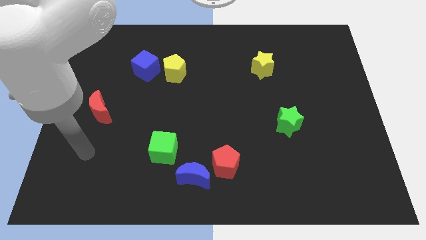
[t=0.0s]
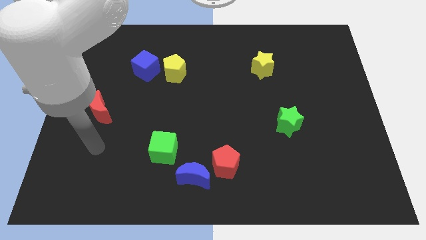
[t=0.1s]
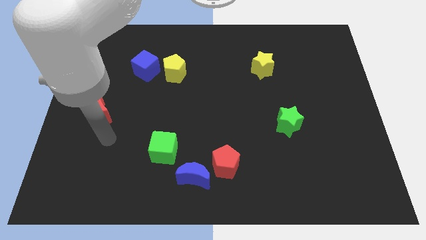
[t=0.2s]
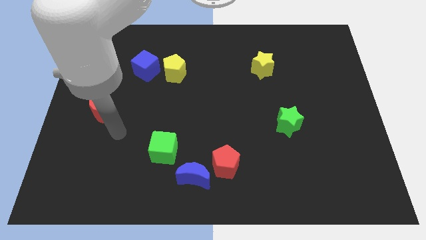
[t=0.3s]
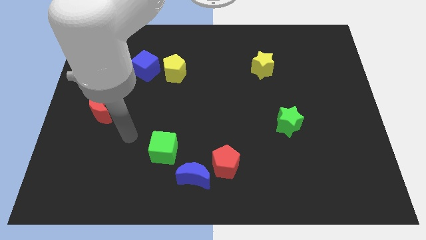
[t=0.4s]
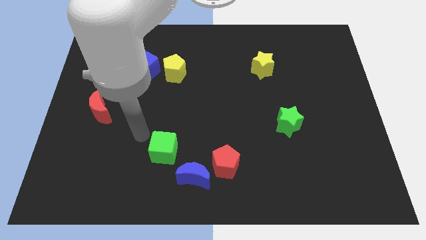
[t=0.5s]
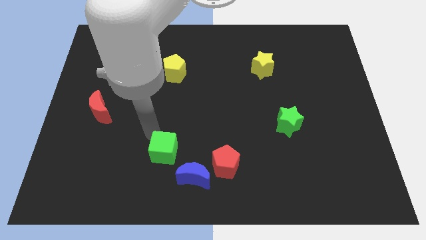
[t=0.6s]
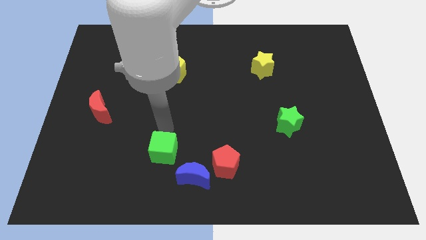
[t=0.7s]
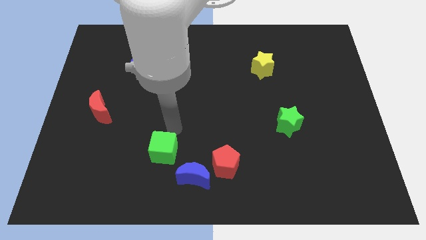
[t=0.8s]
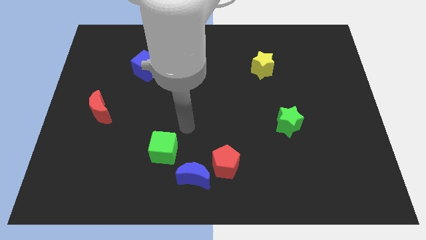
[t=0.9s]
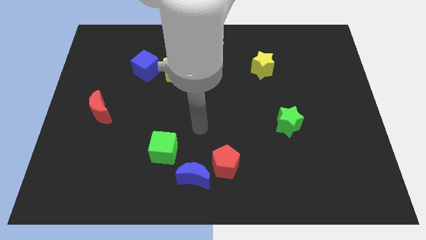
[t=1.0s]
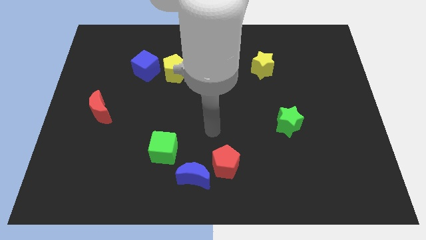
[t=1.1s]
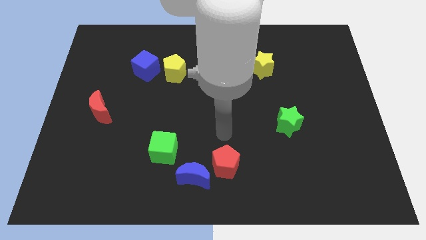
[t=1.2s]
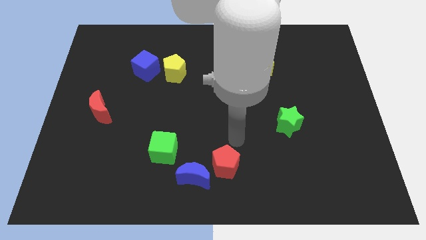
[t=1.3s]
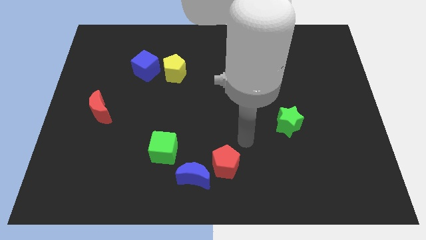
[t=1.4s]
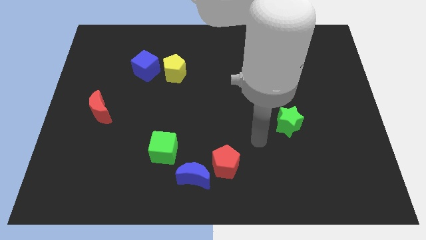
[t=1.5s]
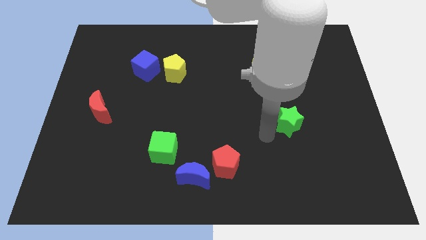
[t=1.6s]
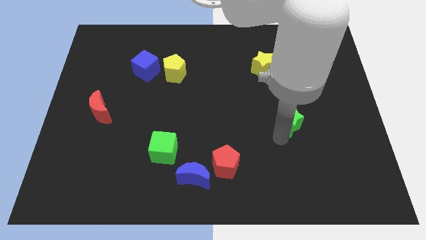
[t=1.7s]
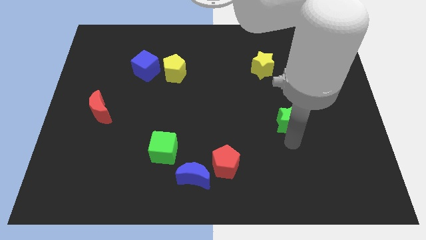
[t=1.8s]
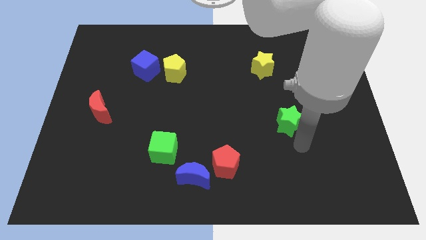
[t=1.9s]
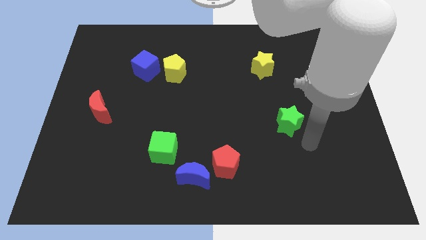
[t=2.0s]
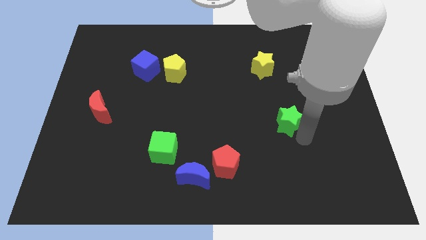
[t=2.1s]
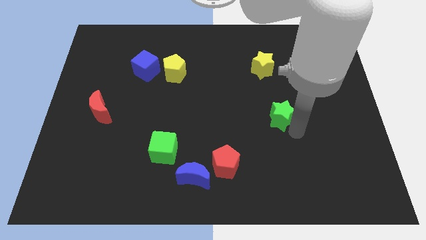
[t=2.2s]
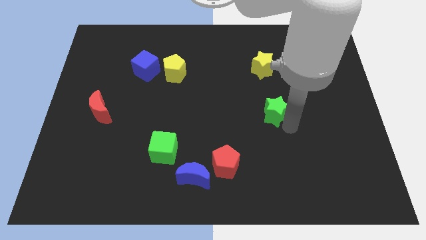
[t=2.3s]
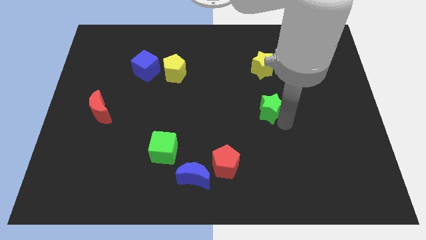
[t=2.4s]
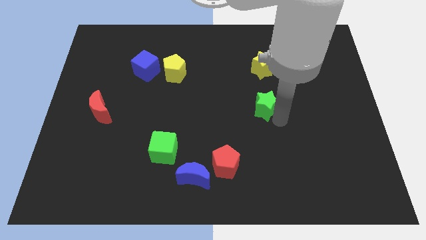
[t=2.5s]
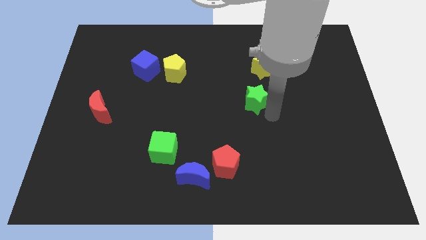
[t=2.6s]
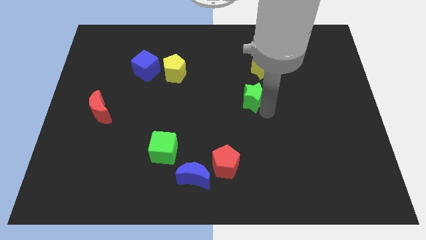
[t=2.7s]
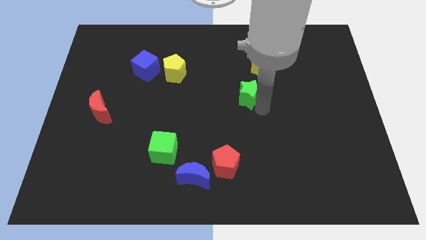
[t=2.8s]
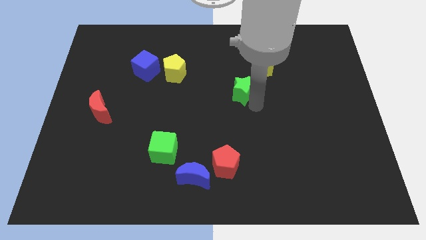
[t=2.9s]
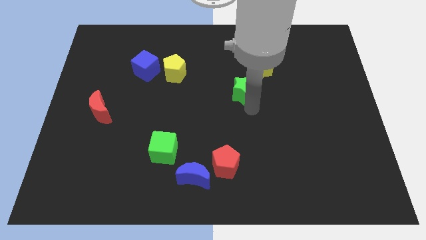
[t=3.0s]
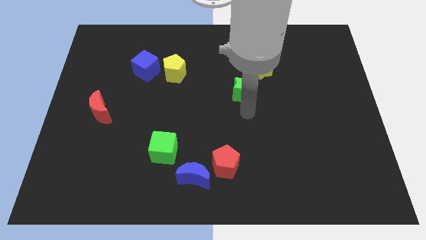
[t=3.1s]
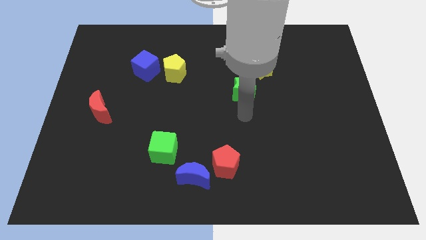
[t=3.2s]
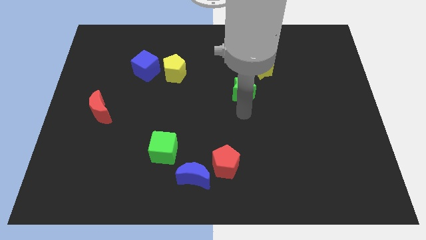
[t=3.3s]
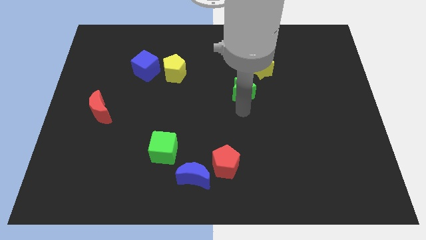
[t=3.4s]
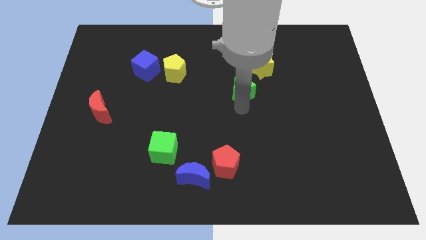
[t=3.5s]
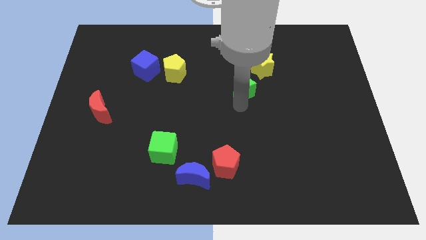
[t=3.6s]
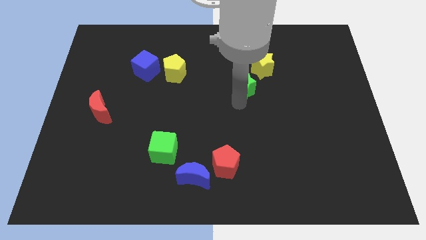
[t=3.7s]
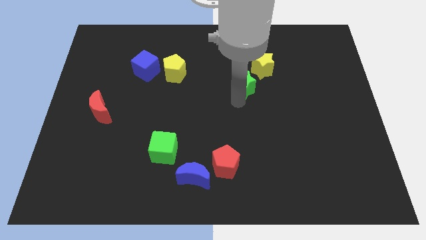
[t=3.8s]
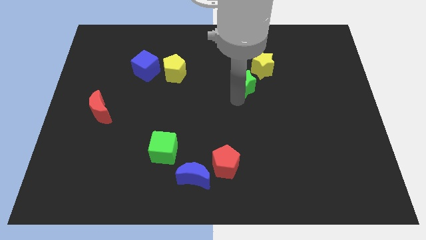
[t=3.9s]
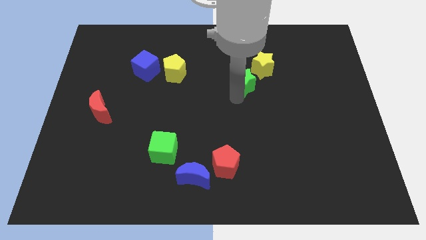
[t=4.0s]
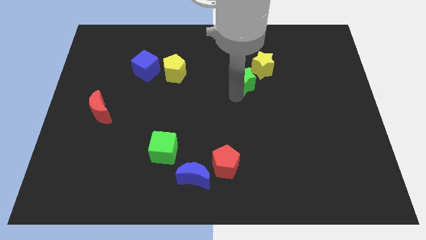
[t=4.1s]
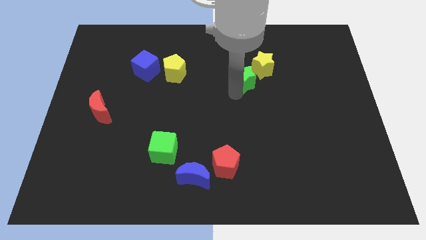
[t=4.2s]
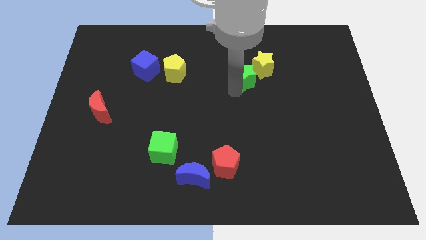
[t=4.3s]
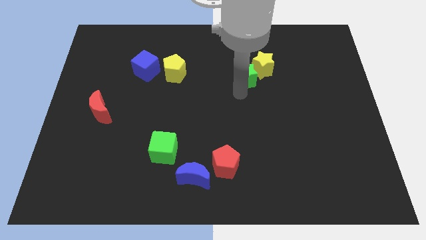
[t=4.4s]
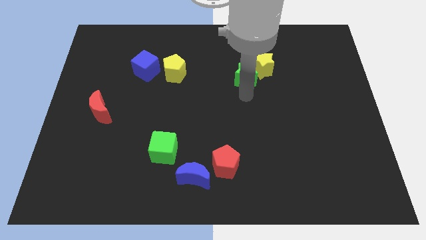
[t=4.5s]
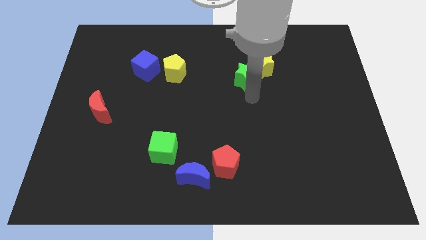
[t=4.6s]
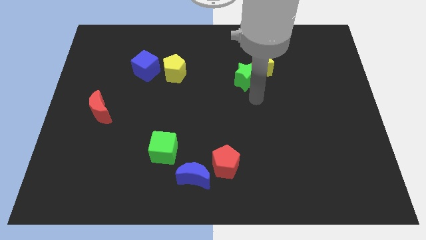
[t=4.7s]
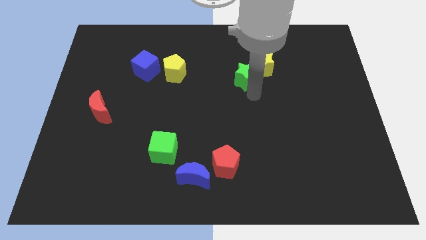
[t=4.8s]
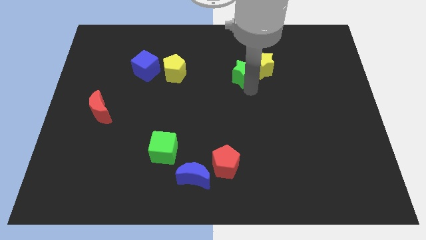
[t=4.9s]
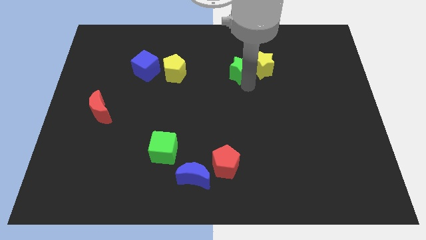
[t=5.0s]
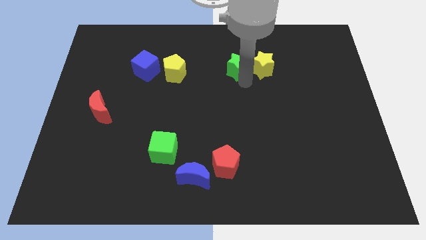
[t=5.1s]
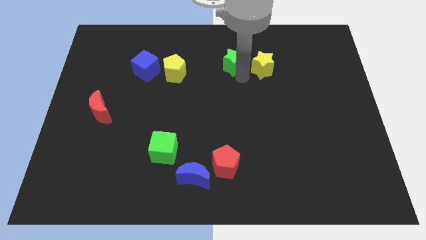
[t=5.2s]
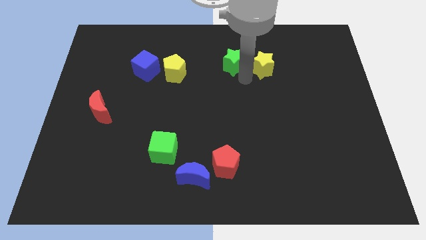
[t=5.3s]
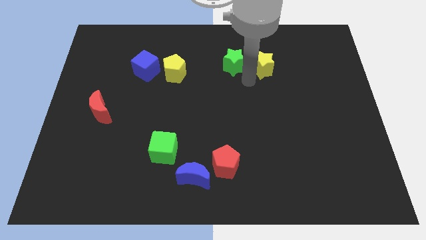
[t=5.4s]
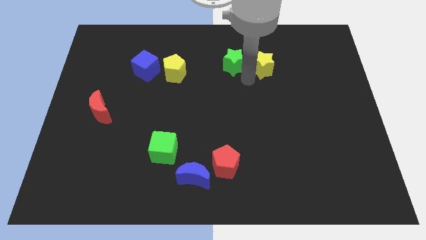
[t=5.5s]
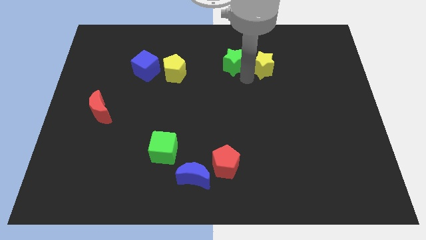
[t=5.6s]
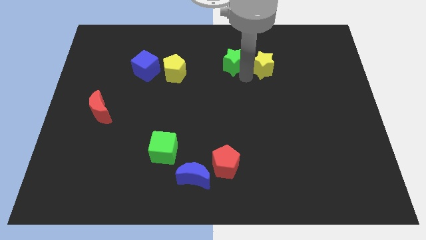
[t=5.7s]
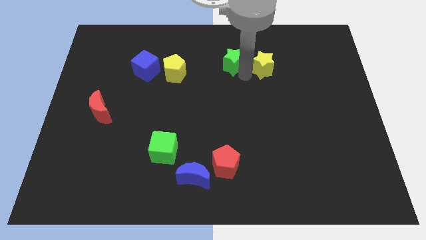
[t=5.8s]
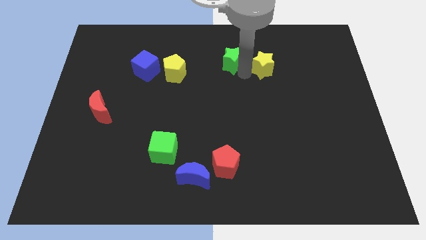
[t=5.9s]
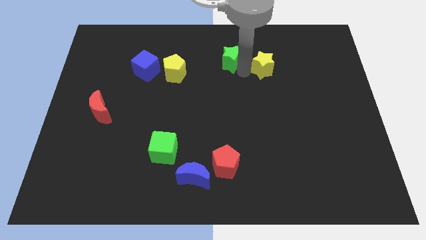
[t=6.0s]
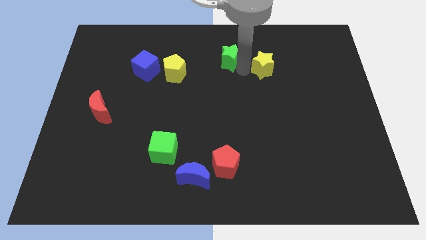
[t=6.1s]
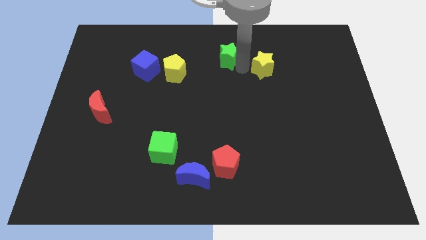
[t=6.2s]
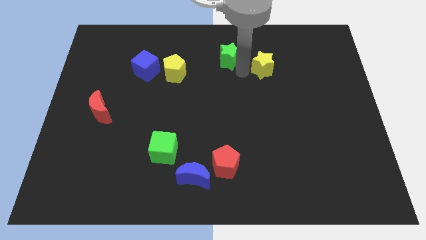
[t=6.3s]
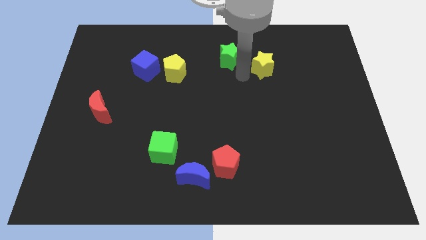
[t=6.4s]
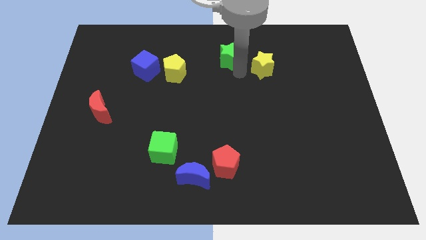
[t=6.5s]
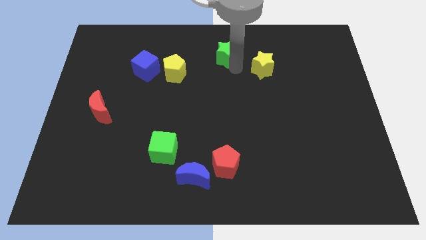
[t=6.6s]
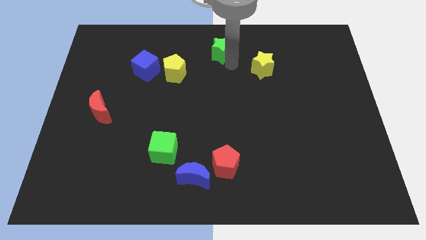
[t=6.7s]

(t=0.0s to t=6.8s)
put the green star to the top
